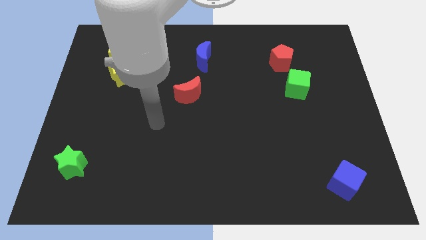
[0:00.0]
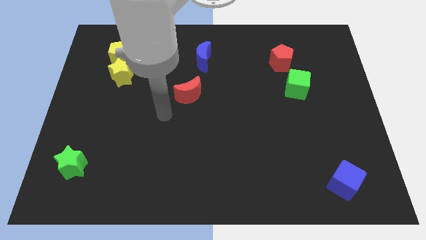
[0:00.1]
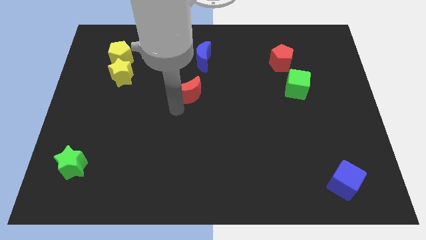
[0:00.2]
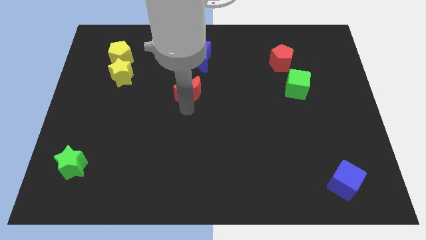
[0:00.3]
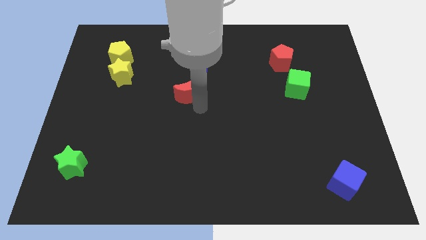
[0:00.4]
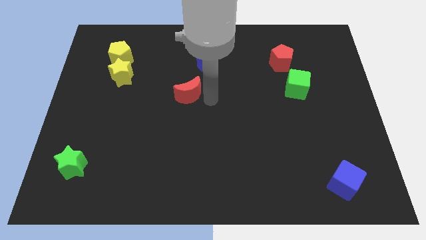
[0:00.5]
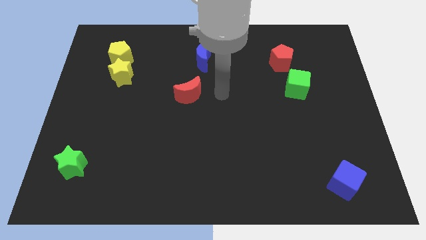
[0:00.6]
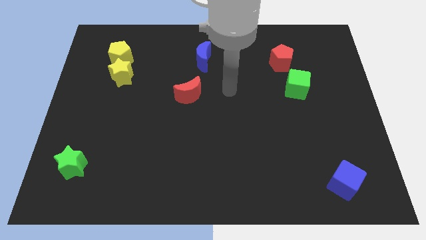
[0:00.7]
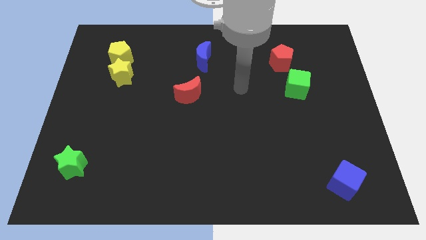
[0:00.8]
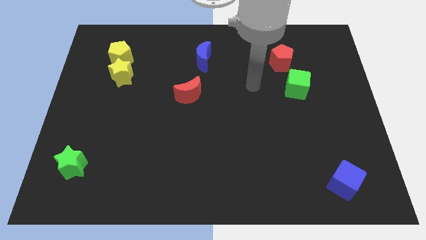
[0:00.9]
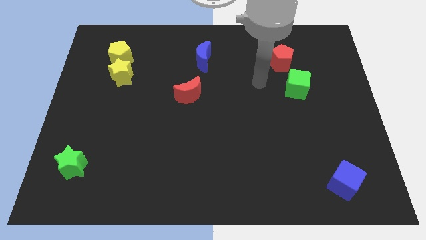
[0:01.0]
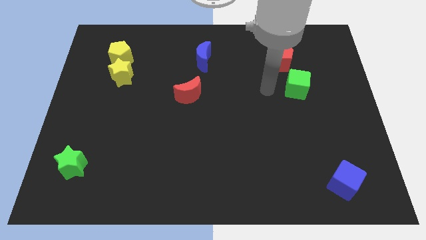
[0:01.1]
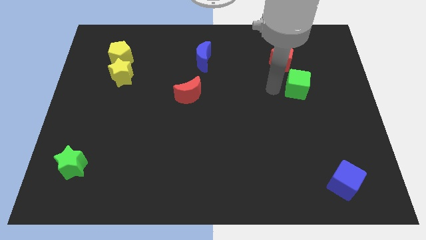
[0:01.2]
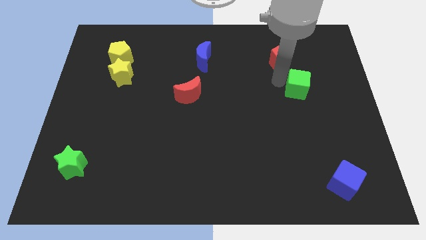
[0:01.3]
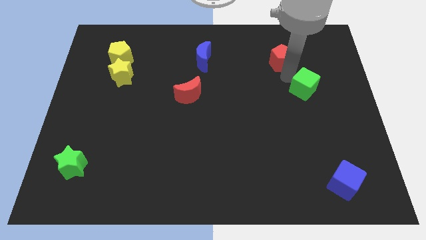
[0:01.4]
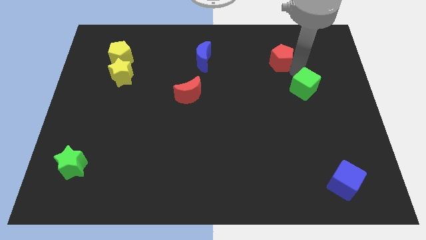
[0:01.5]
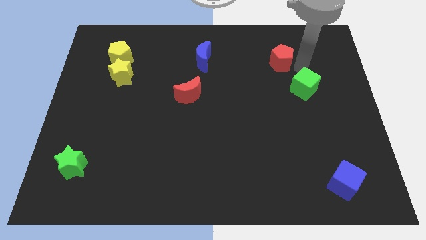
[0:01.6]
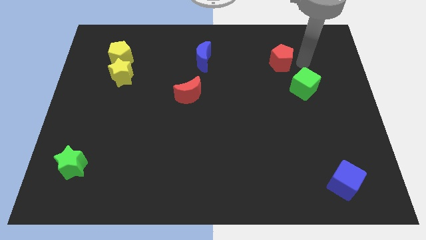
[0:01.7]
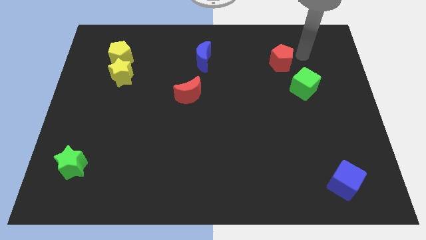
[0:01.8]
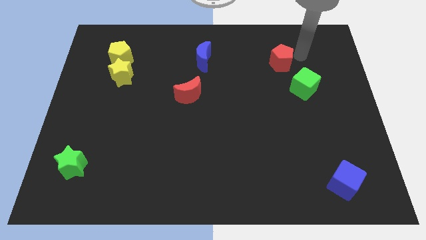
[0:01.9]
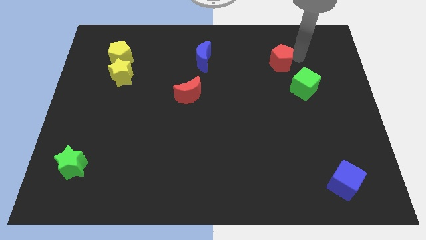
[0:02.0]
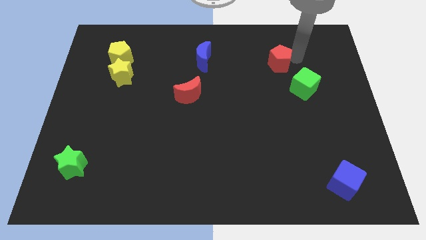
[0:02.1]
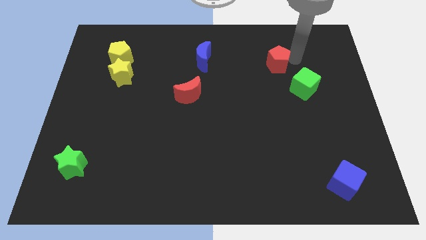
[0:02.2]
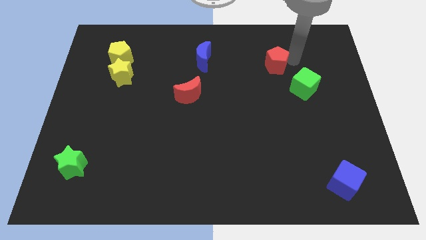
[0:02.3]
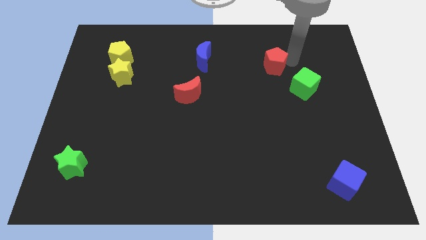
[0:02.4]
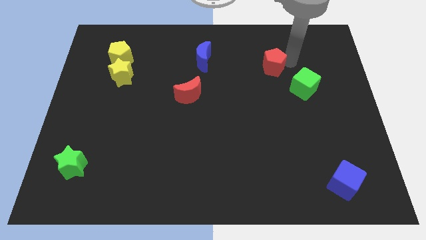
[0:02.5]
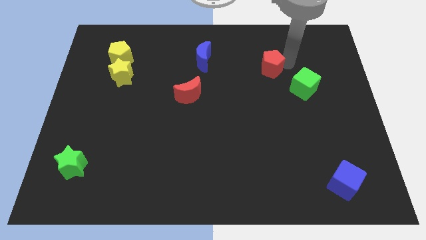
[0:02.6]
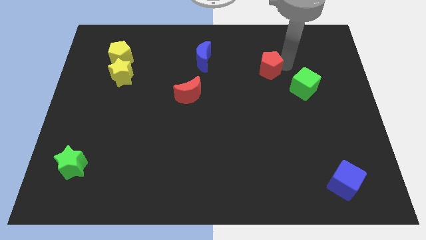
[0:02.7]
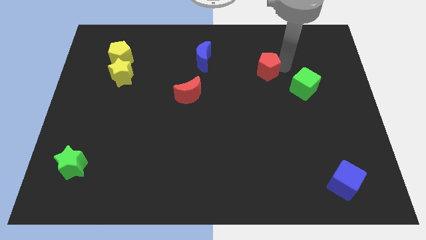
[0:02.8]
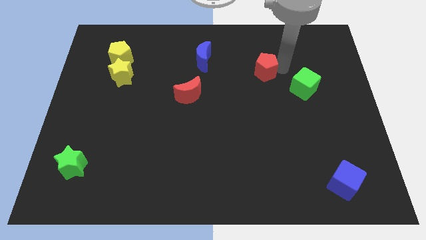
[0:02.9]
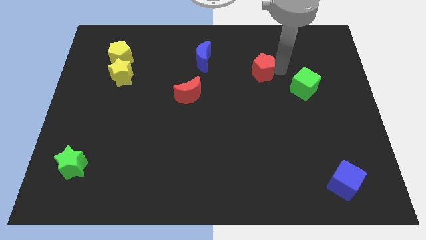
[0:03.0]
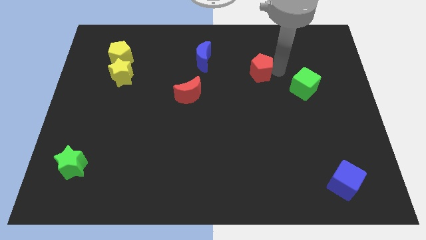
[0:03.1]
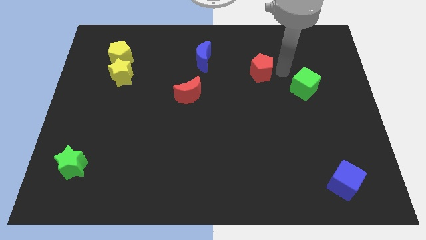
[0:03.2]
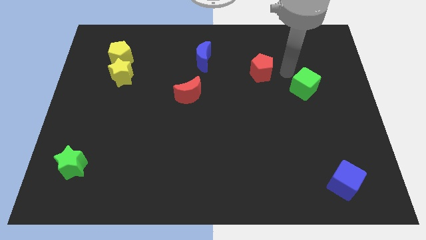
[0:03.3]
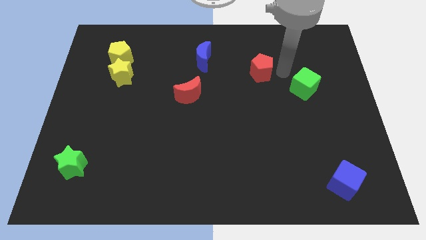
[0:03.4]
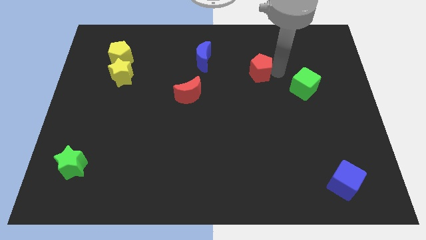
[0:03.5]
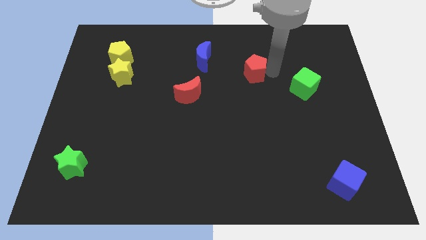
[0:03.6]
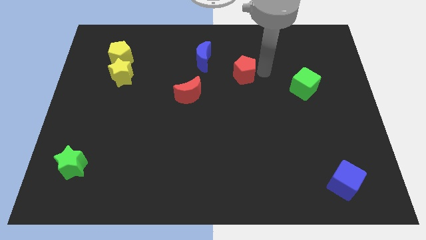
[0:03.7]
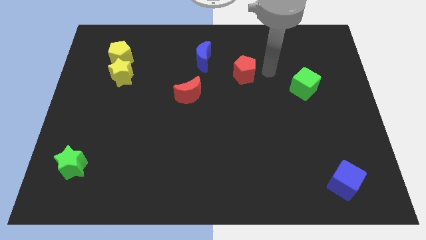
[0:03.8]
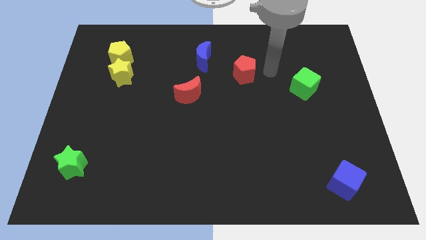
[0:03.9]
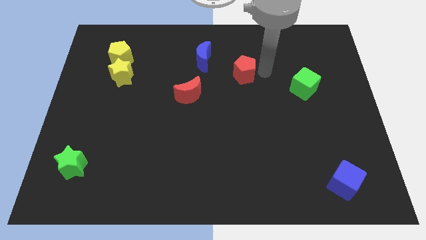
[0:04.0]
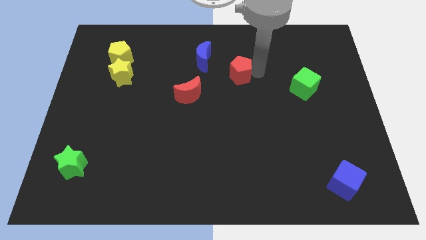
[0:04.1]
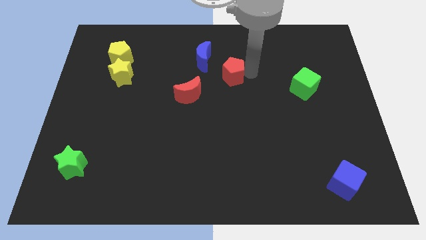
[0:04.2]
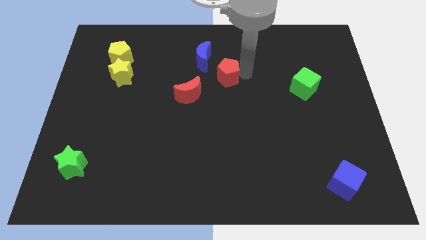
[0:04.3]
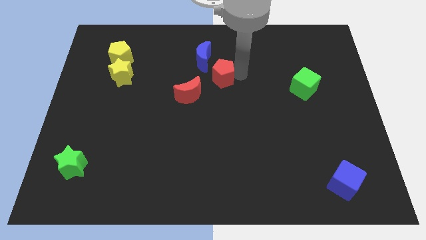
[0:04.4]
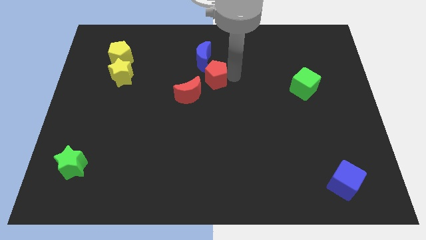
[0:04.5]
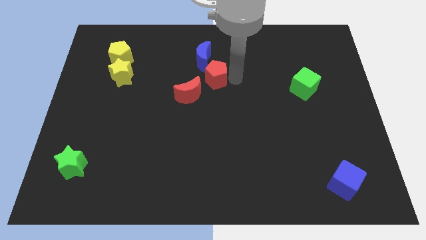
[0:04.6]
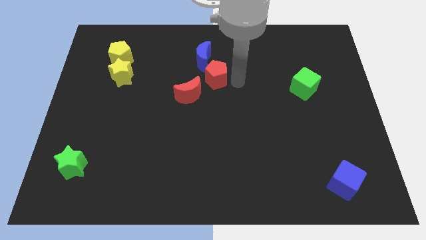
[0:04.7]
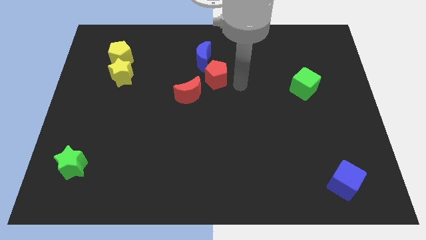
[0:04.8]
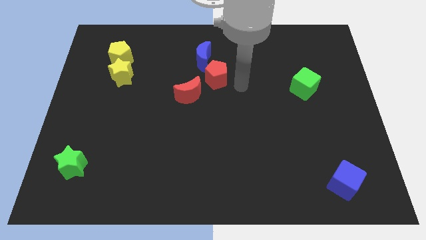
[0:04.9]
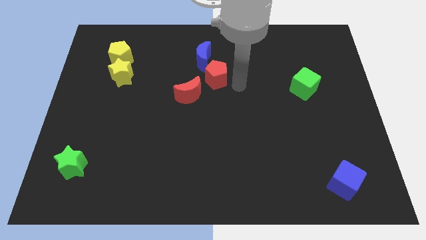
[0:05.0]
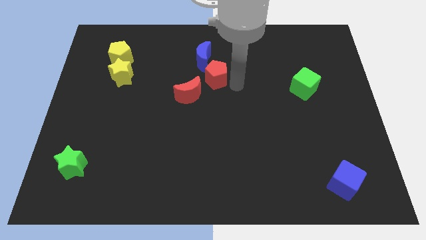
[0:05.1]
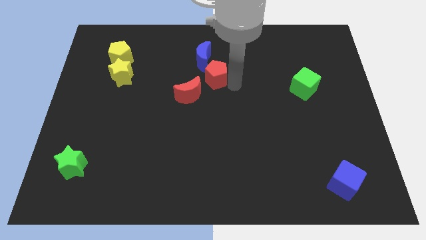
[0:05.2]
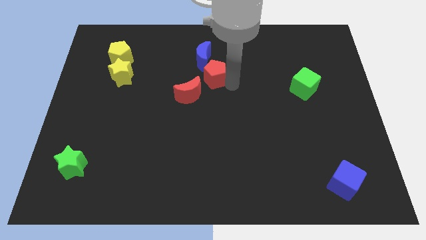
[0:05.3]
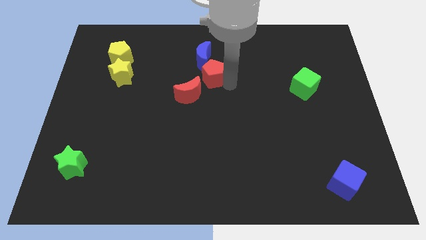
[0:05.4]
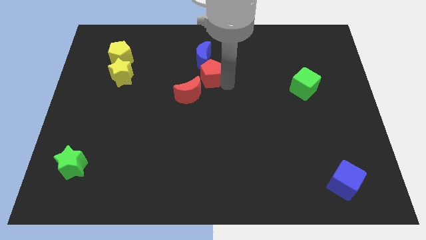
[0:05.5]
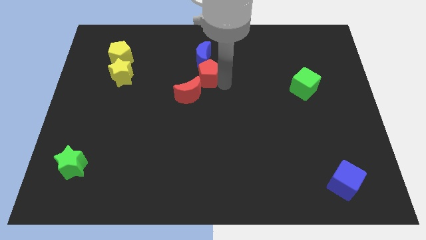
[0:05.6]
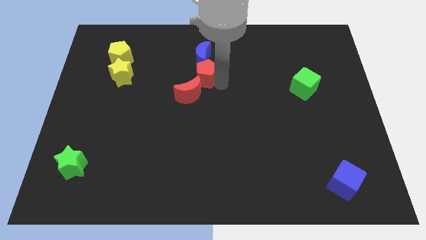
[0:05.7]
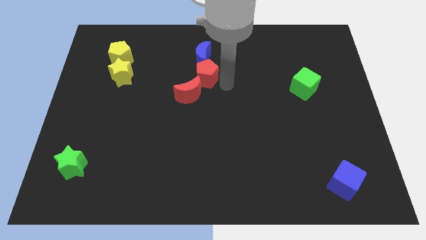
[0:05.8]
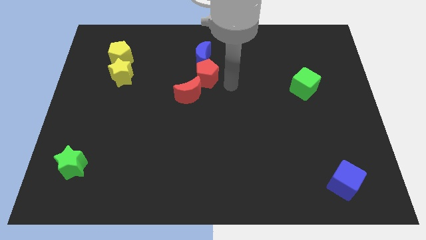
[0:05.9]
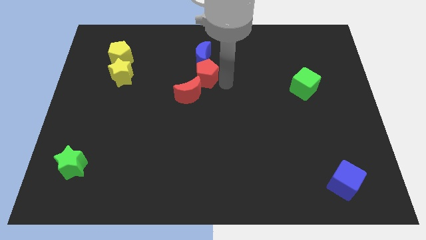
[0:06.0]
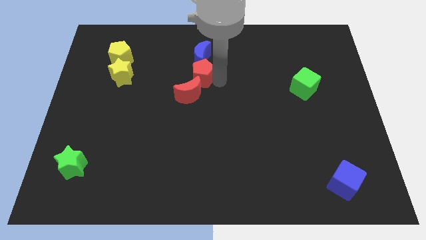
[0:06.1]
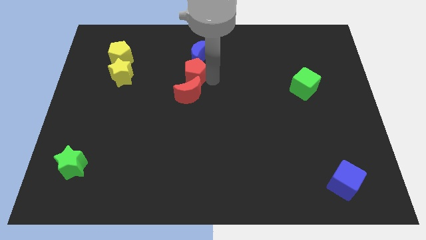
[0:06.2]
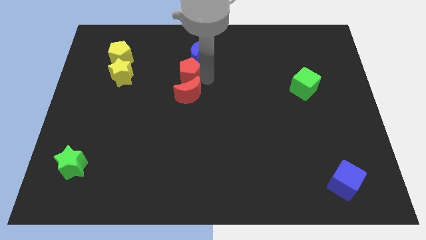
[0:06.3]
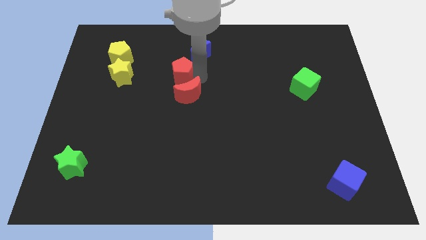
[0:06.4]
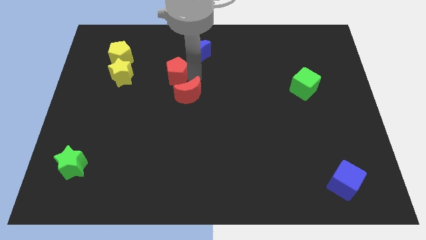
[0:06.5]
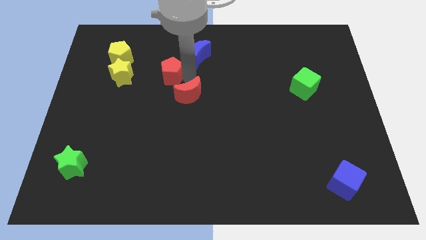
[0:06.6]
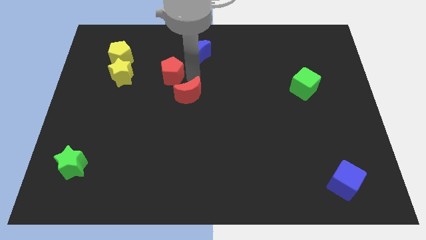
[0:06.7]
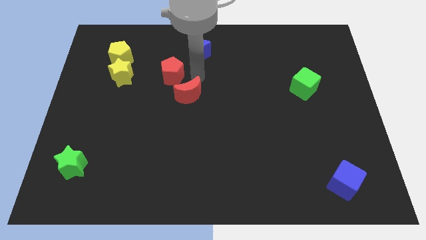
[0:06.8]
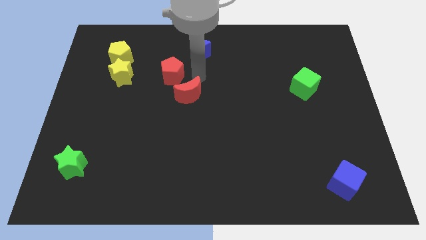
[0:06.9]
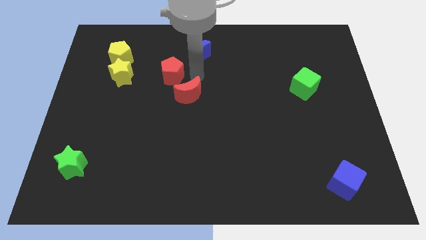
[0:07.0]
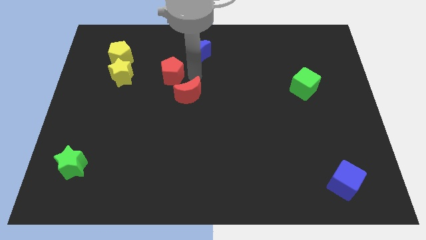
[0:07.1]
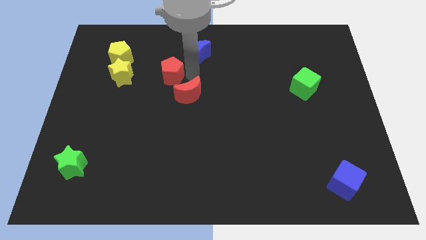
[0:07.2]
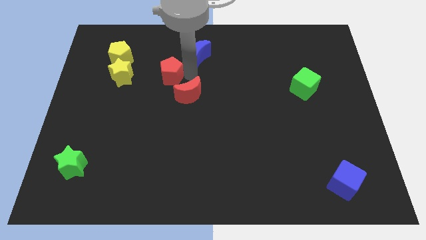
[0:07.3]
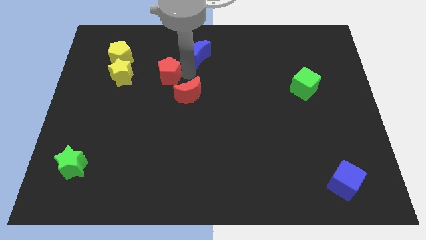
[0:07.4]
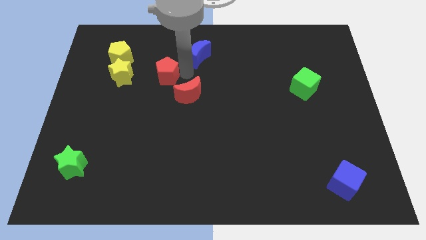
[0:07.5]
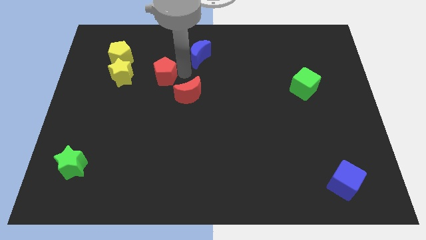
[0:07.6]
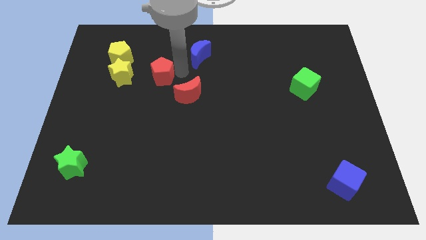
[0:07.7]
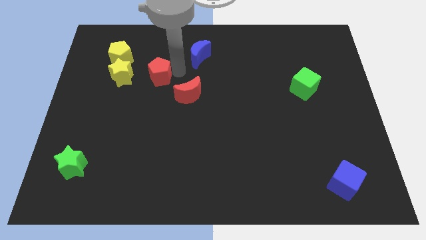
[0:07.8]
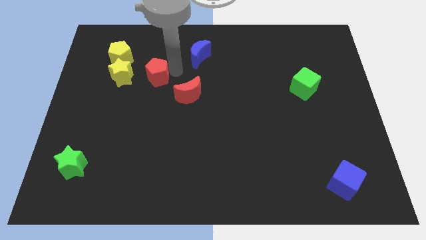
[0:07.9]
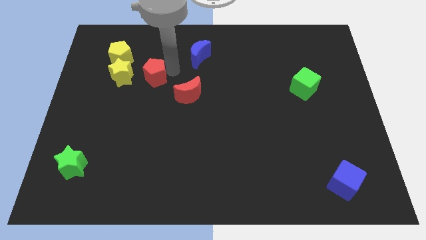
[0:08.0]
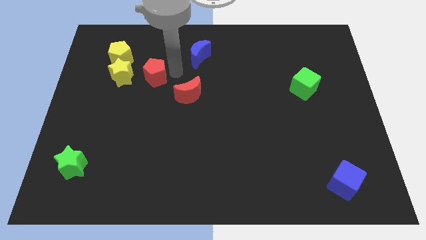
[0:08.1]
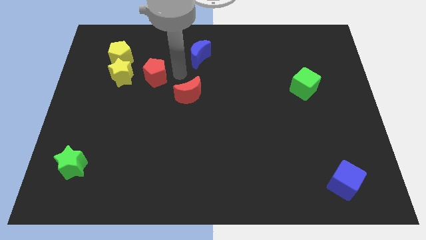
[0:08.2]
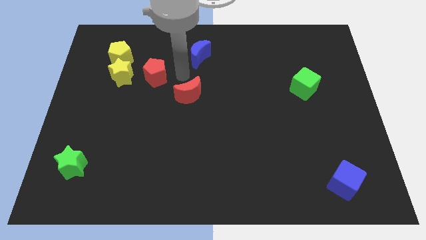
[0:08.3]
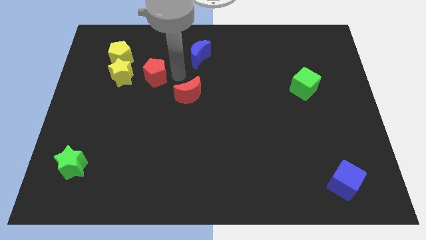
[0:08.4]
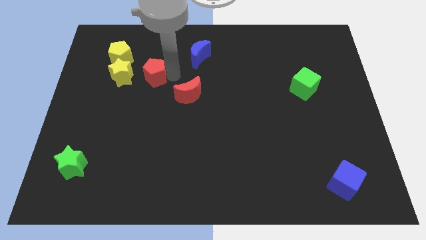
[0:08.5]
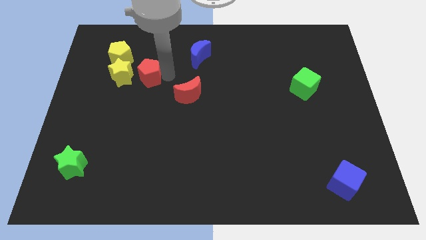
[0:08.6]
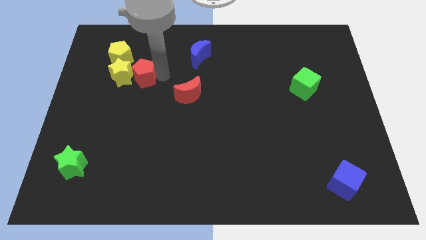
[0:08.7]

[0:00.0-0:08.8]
move the red pentagon to the yellow star
